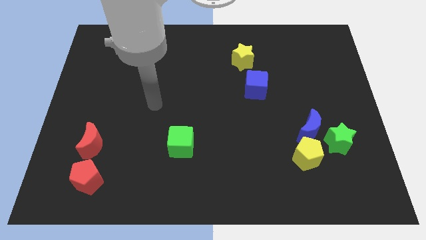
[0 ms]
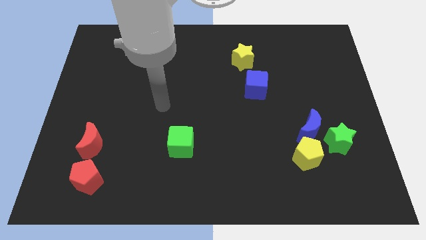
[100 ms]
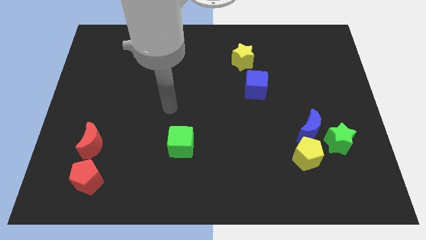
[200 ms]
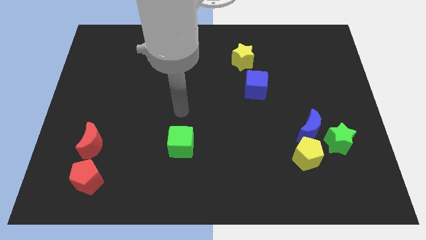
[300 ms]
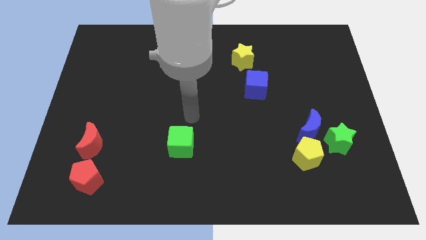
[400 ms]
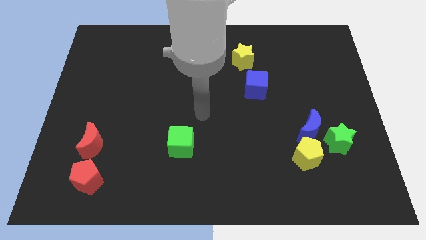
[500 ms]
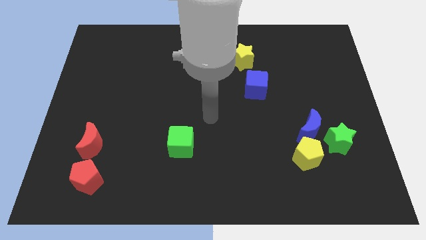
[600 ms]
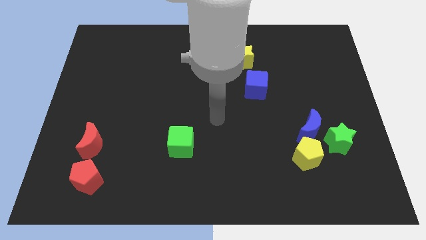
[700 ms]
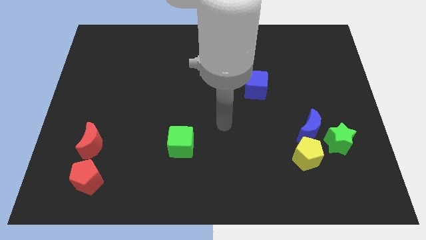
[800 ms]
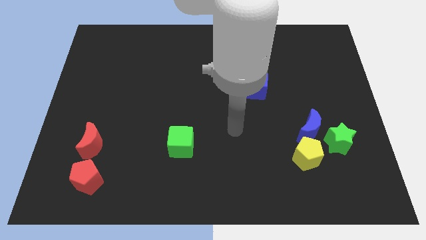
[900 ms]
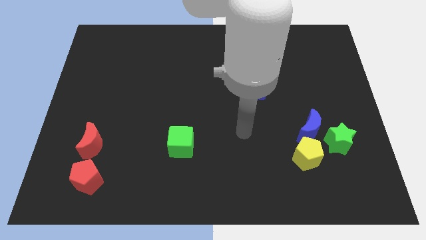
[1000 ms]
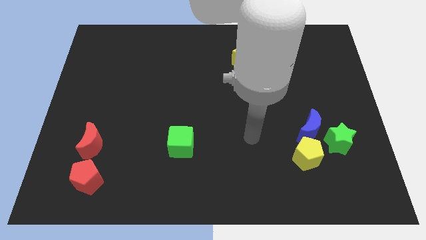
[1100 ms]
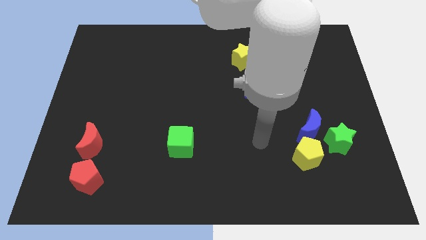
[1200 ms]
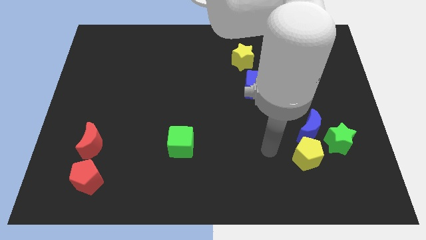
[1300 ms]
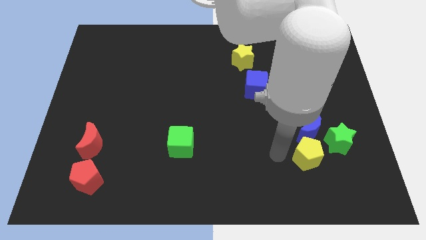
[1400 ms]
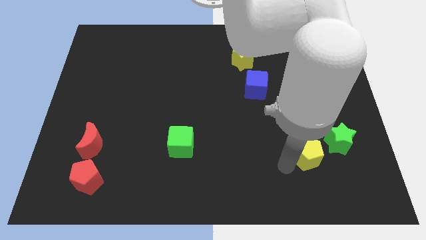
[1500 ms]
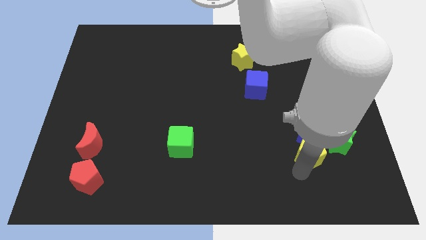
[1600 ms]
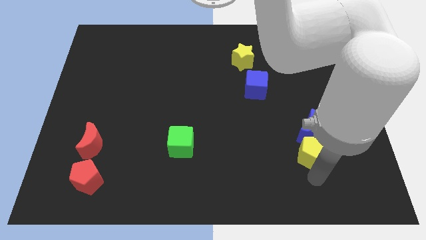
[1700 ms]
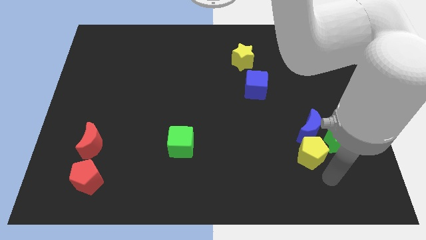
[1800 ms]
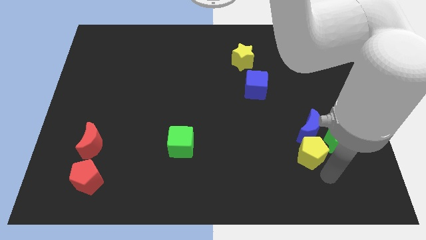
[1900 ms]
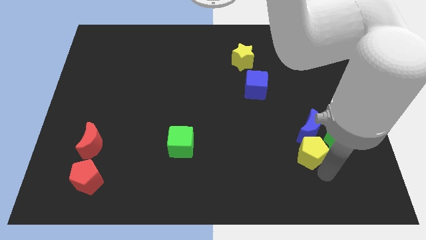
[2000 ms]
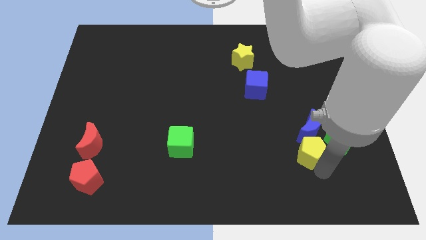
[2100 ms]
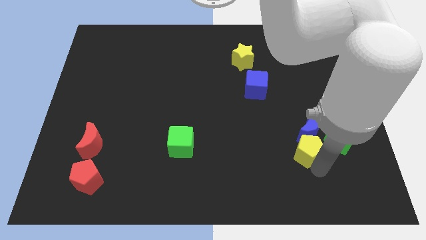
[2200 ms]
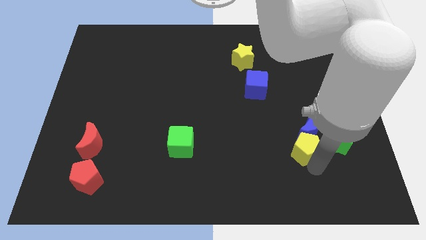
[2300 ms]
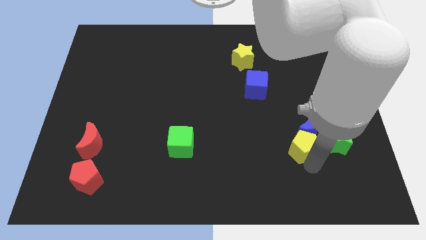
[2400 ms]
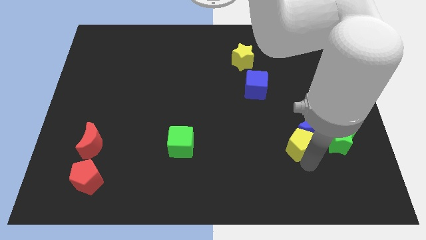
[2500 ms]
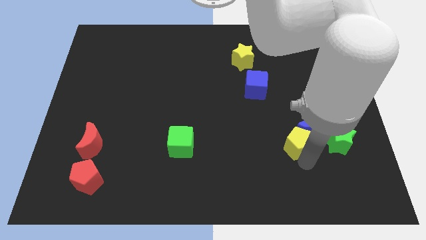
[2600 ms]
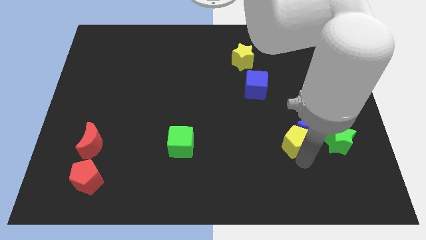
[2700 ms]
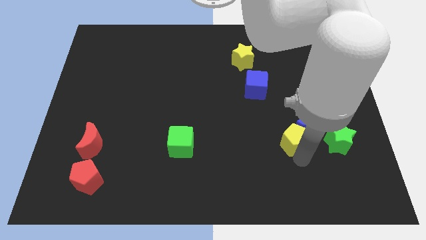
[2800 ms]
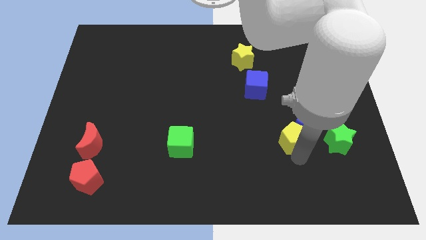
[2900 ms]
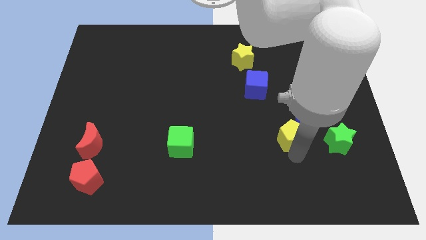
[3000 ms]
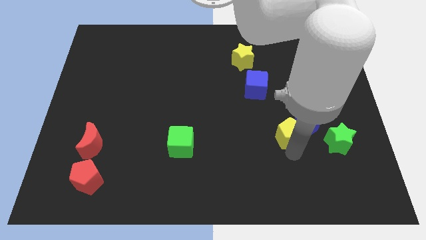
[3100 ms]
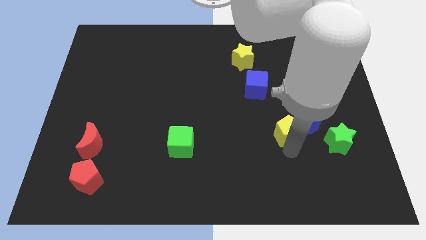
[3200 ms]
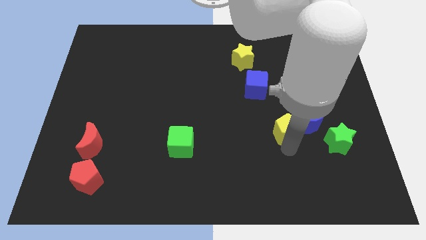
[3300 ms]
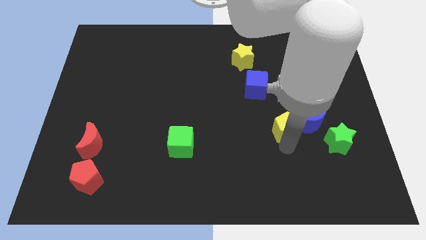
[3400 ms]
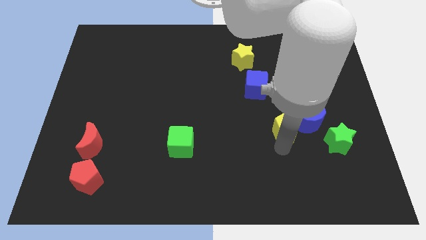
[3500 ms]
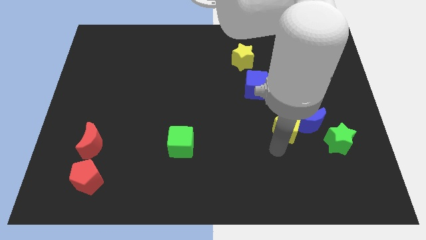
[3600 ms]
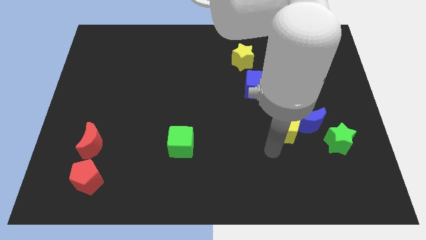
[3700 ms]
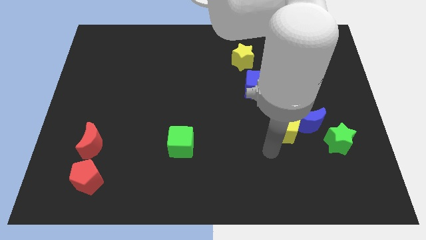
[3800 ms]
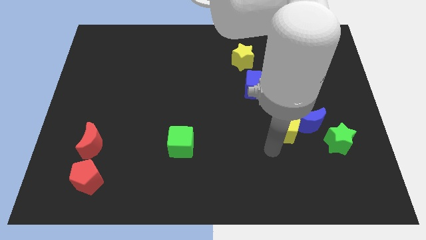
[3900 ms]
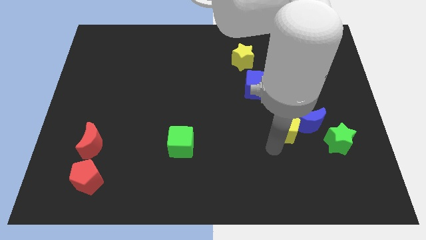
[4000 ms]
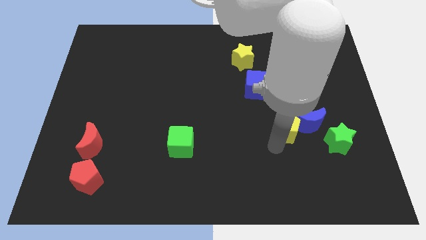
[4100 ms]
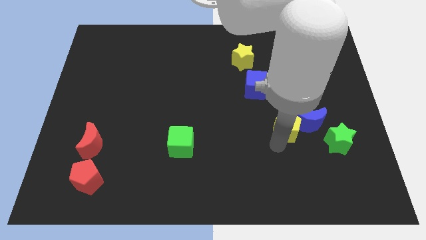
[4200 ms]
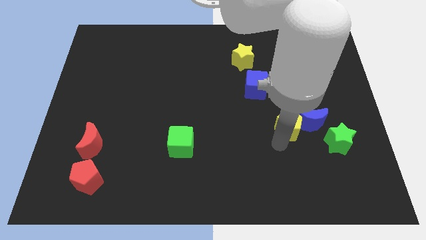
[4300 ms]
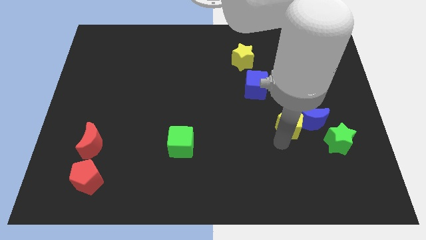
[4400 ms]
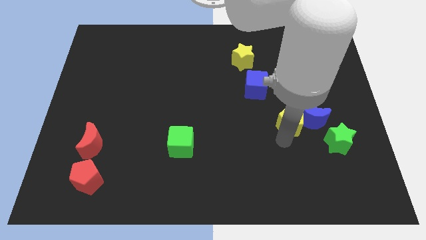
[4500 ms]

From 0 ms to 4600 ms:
slide the yellow pentagon to the top left side of the green star

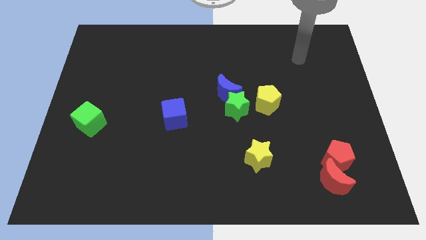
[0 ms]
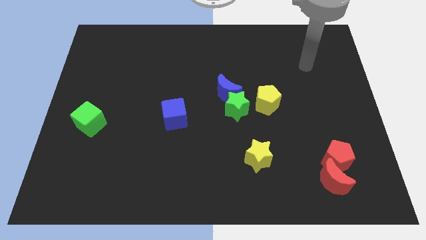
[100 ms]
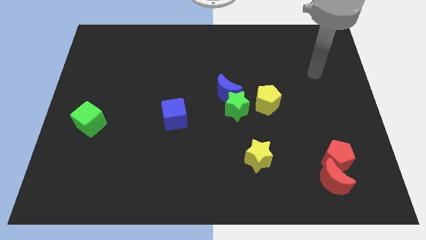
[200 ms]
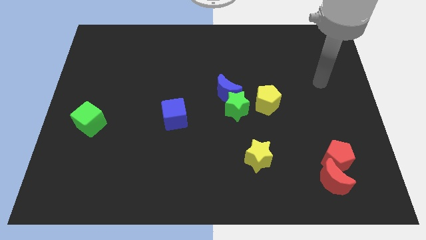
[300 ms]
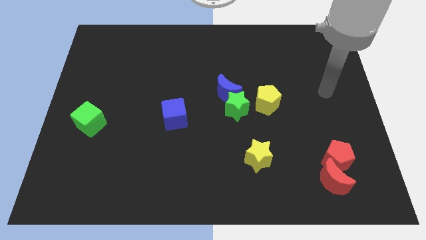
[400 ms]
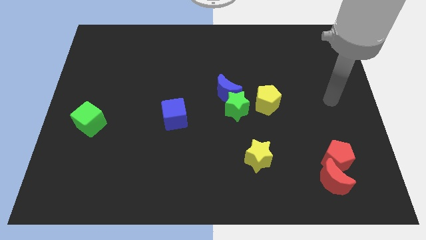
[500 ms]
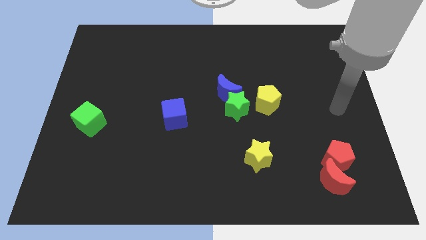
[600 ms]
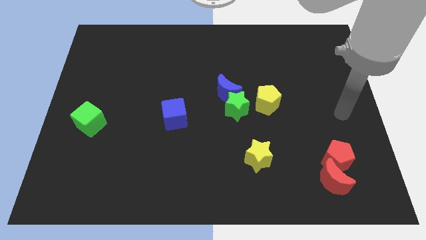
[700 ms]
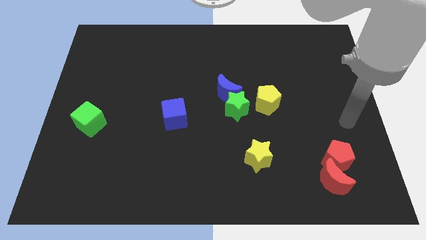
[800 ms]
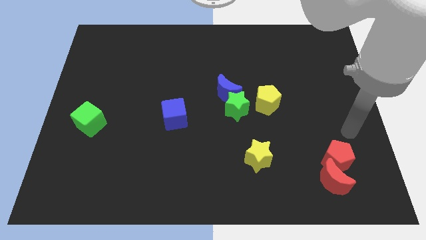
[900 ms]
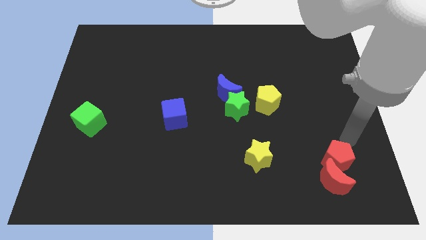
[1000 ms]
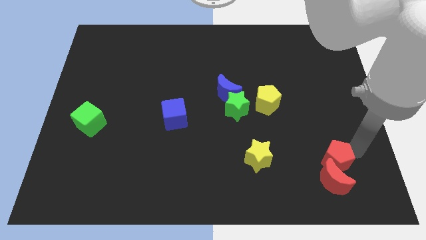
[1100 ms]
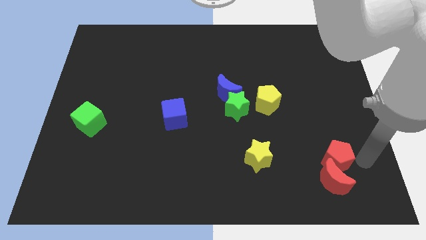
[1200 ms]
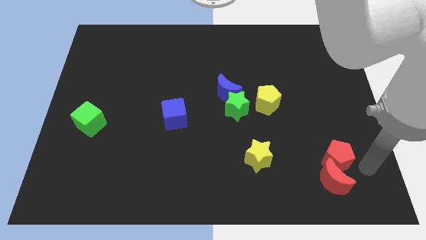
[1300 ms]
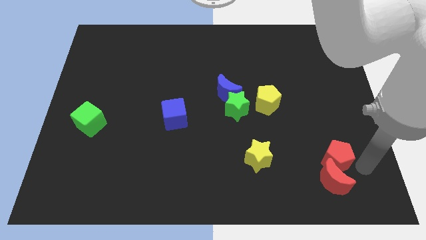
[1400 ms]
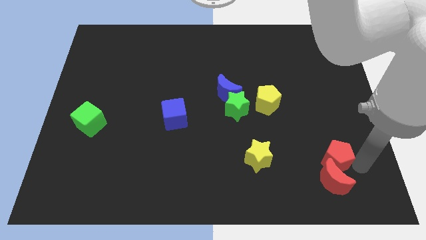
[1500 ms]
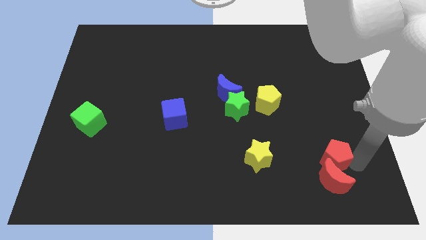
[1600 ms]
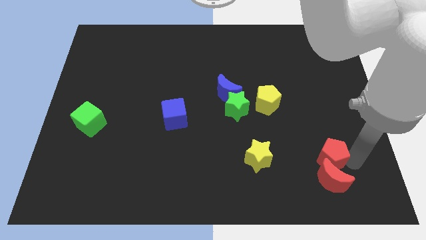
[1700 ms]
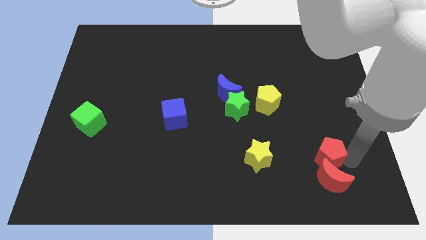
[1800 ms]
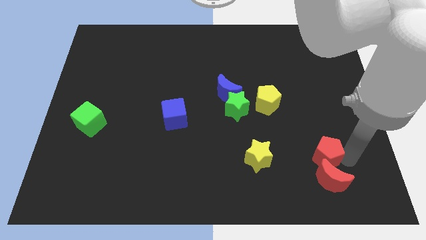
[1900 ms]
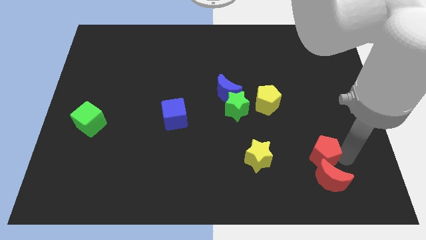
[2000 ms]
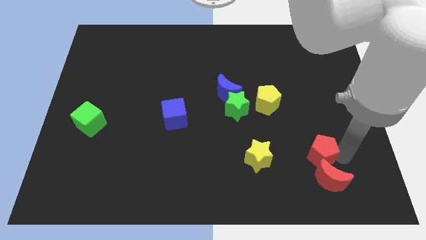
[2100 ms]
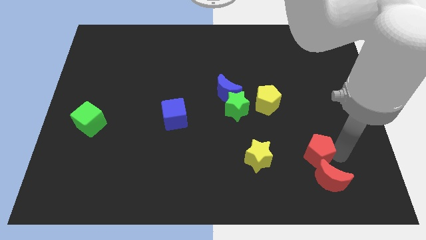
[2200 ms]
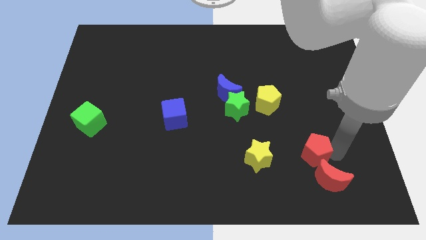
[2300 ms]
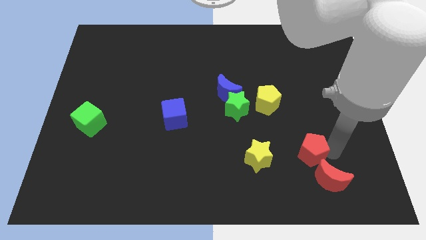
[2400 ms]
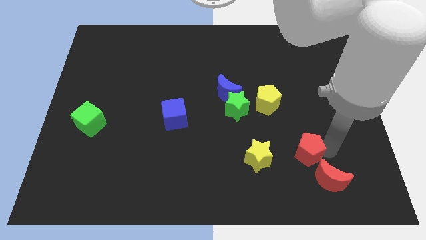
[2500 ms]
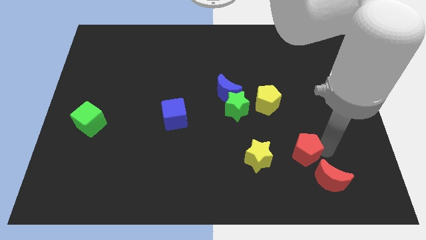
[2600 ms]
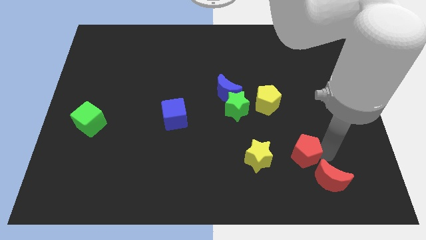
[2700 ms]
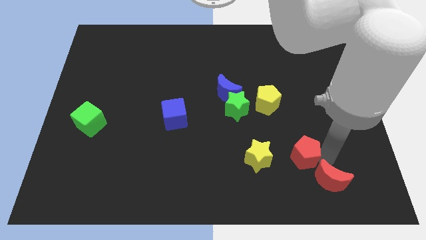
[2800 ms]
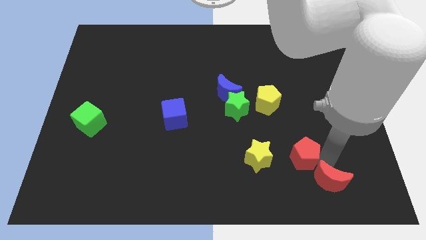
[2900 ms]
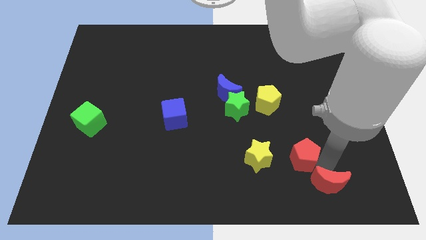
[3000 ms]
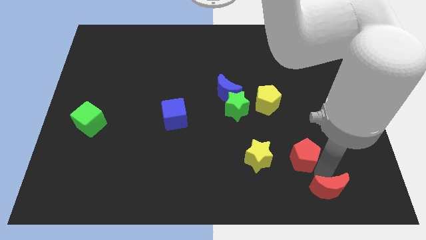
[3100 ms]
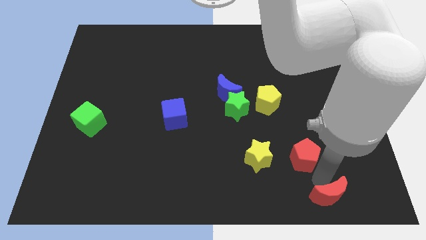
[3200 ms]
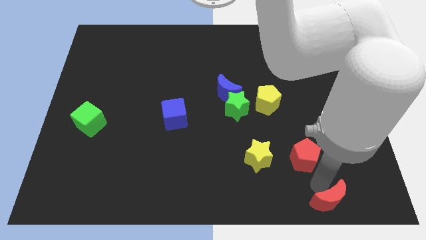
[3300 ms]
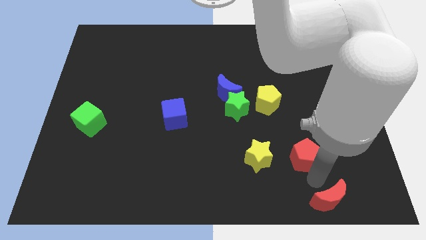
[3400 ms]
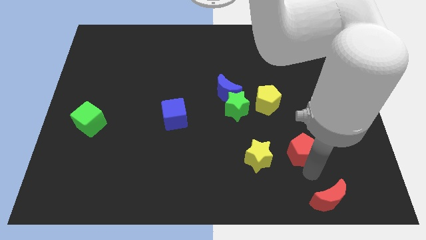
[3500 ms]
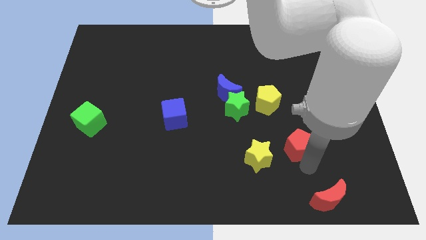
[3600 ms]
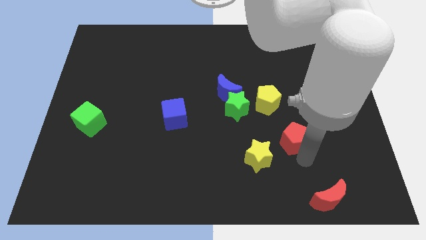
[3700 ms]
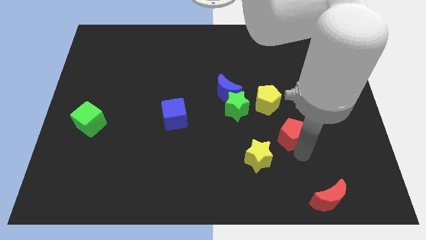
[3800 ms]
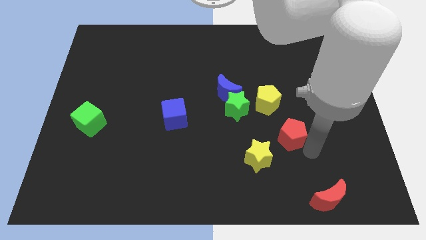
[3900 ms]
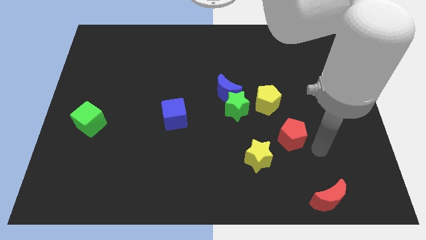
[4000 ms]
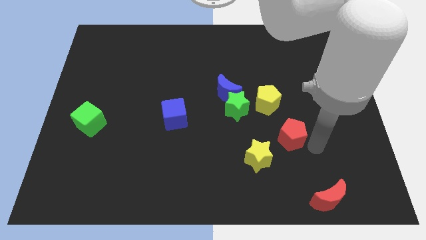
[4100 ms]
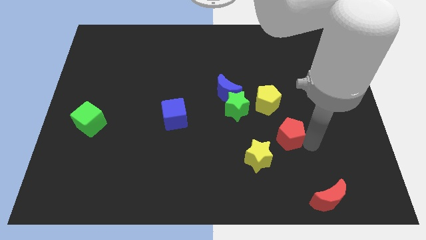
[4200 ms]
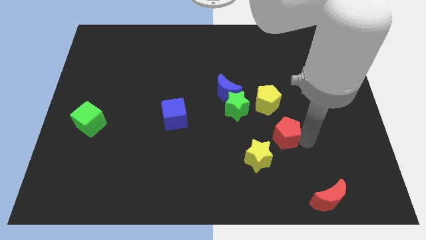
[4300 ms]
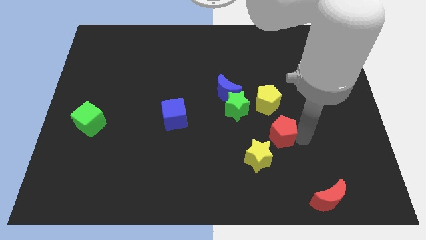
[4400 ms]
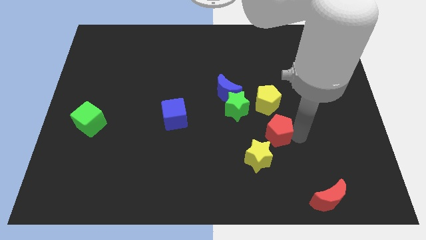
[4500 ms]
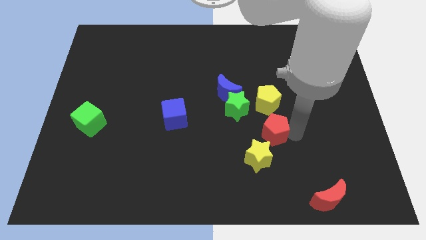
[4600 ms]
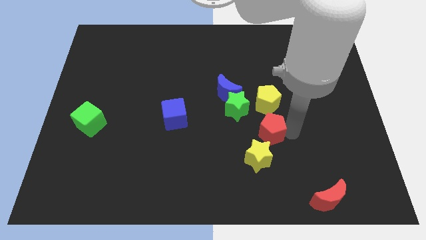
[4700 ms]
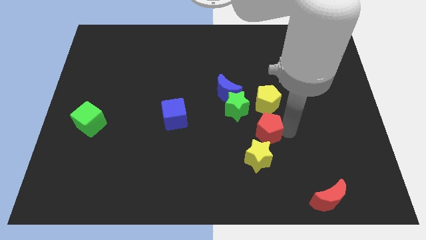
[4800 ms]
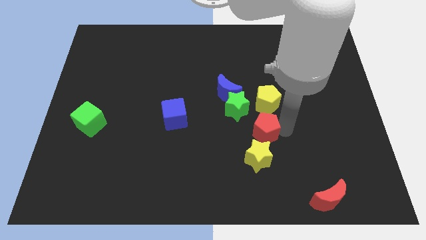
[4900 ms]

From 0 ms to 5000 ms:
move the red pentagon to the bottom left side of the yellow pentagon
